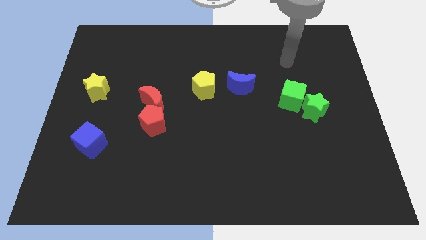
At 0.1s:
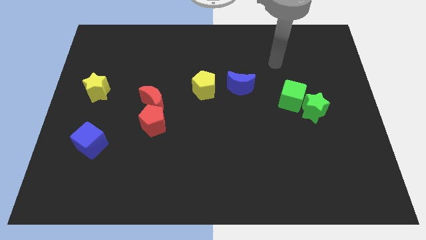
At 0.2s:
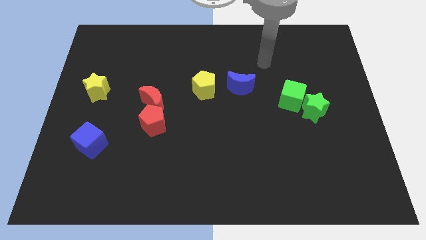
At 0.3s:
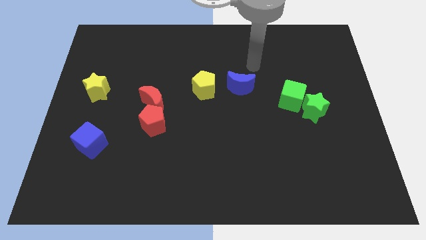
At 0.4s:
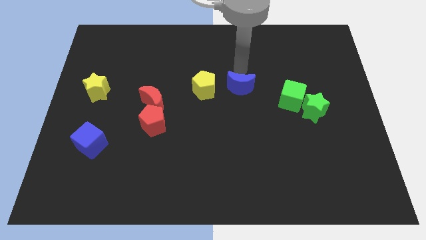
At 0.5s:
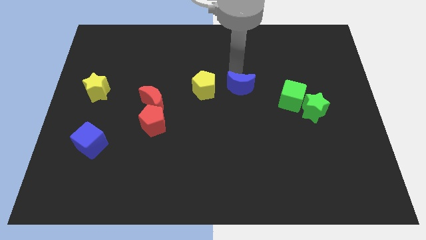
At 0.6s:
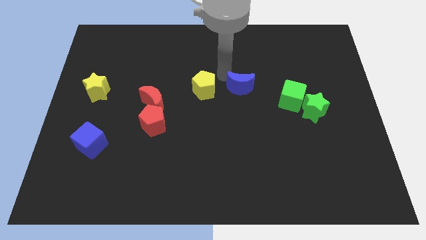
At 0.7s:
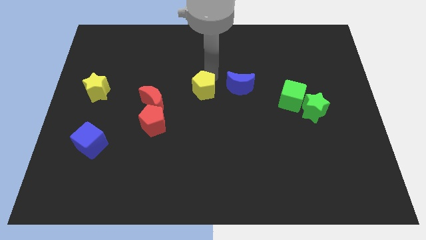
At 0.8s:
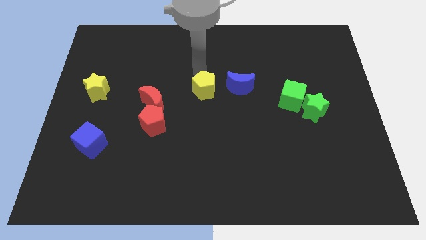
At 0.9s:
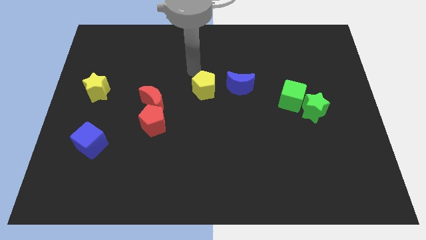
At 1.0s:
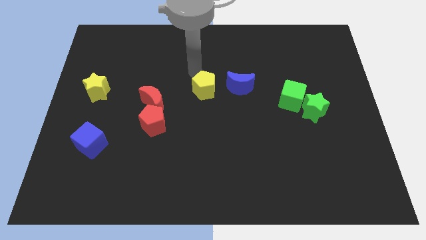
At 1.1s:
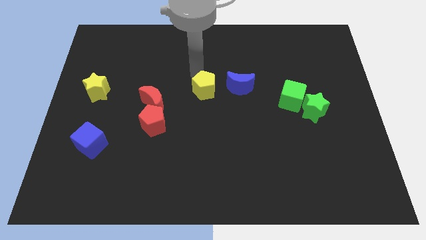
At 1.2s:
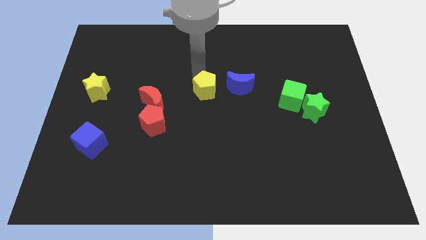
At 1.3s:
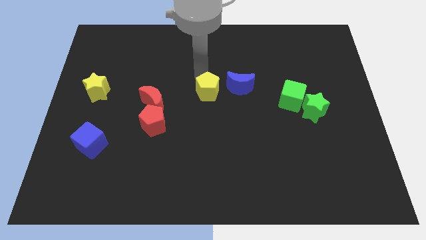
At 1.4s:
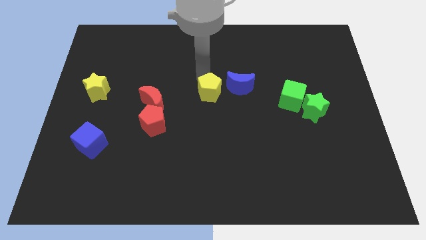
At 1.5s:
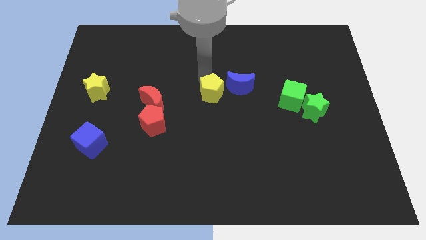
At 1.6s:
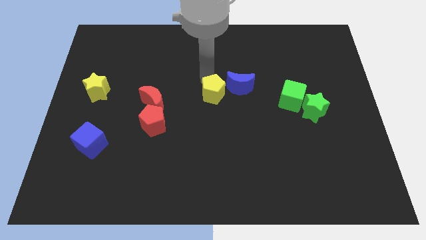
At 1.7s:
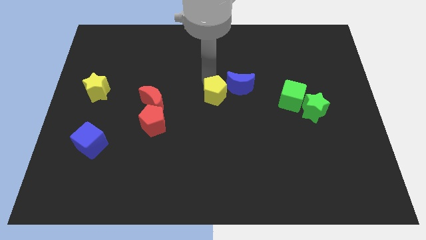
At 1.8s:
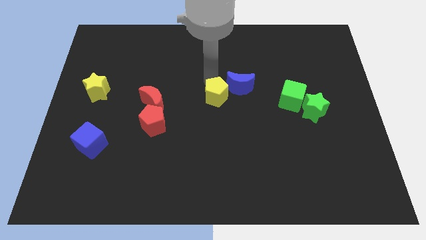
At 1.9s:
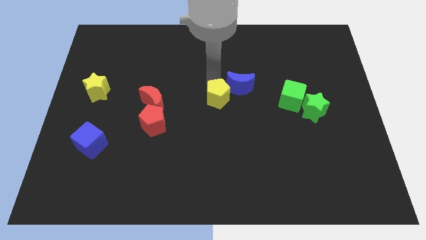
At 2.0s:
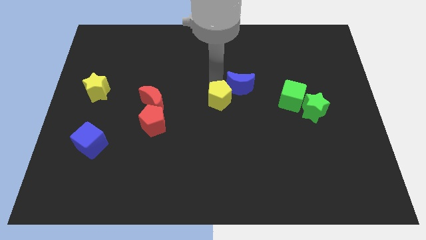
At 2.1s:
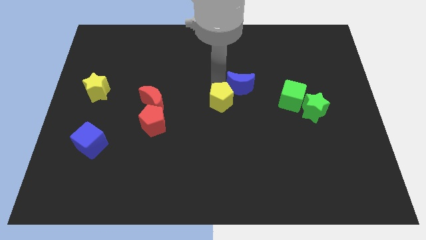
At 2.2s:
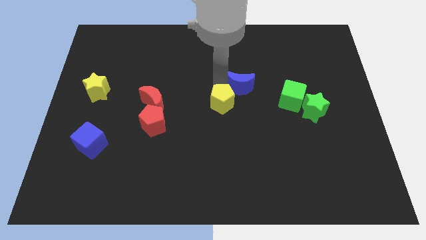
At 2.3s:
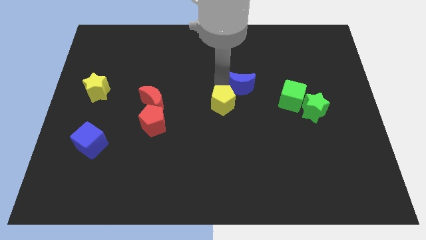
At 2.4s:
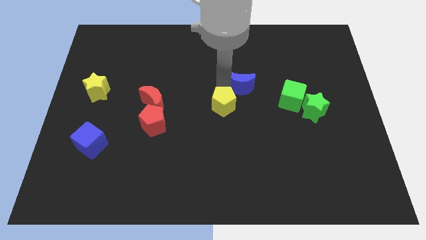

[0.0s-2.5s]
move the yellow pentagon down and to the right slightly

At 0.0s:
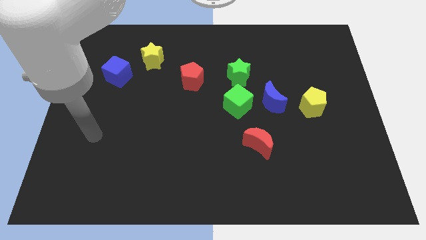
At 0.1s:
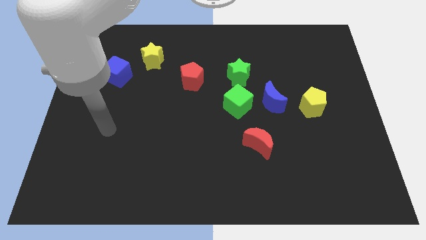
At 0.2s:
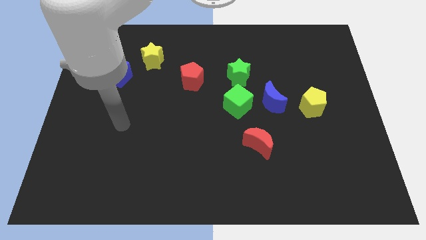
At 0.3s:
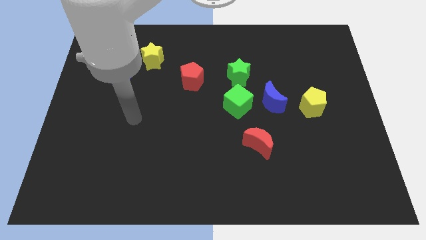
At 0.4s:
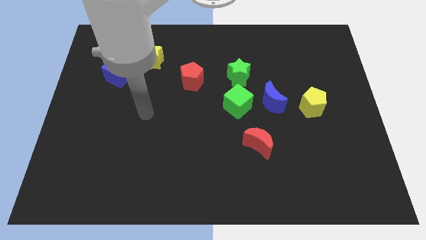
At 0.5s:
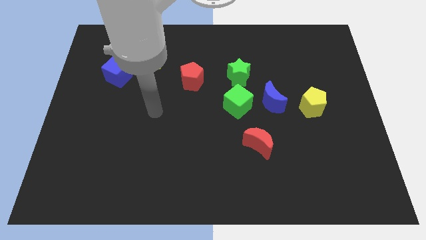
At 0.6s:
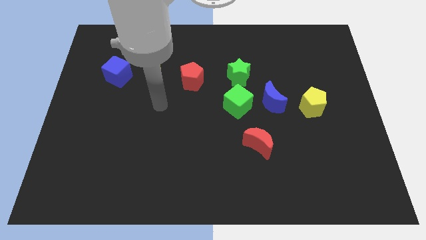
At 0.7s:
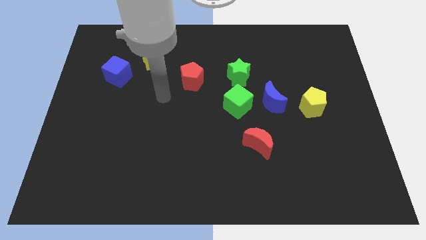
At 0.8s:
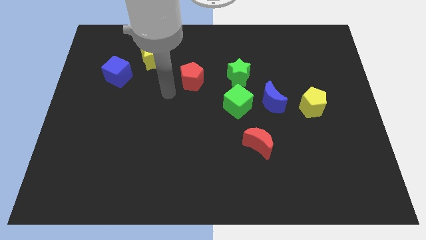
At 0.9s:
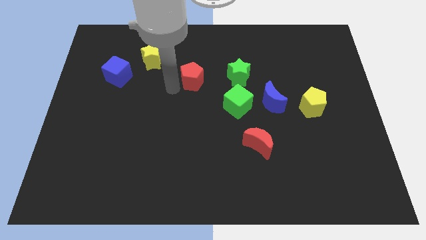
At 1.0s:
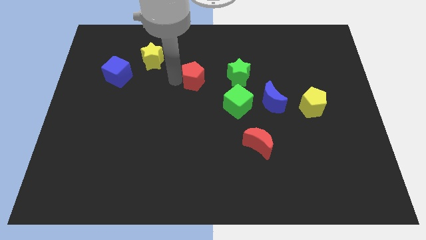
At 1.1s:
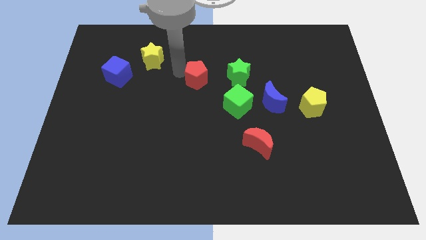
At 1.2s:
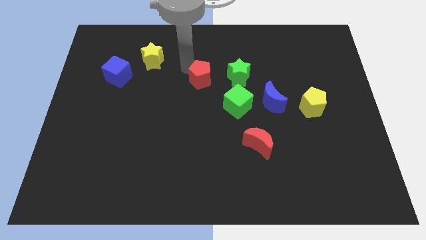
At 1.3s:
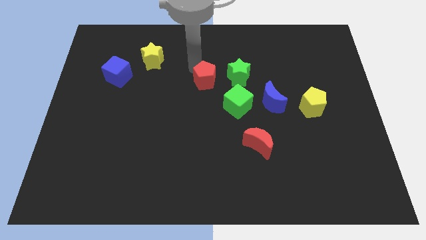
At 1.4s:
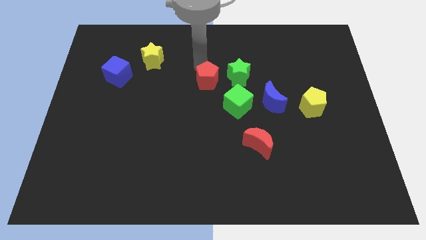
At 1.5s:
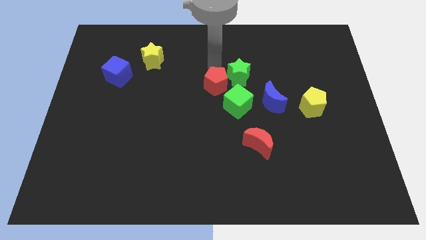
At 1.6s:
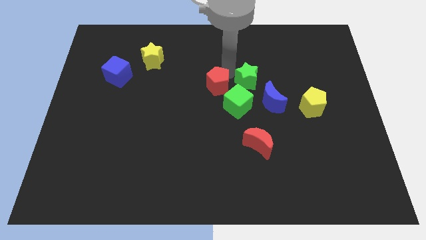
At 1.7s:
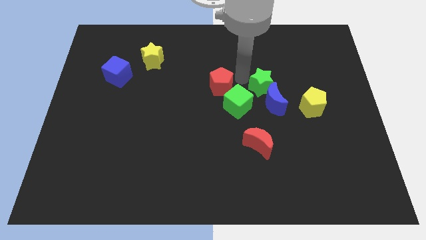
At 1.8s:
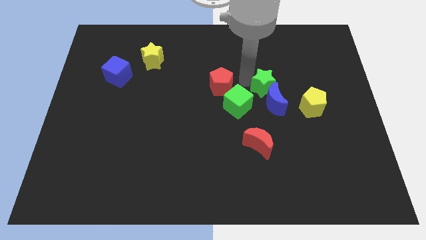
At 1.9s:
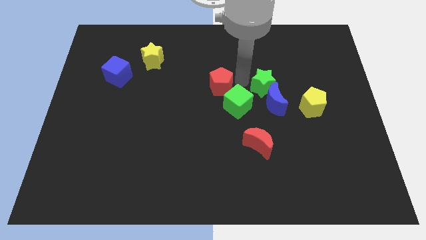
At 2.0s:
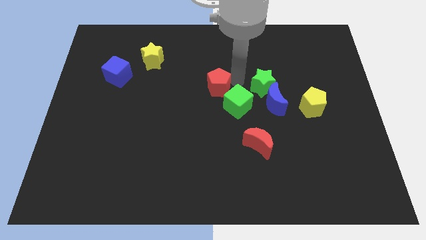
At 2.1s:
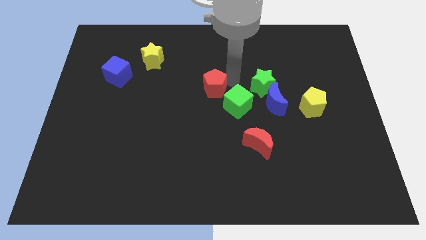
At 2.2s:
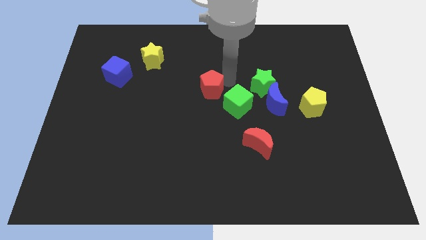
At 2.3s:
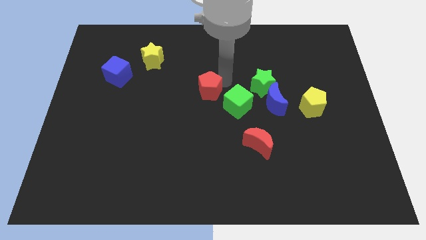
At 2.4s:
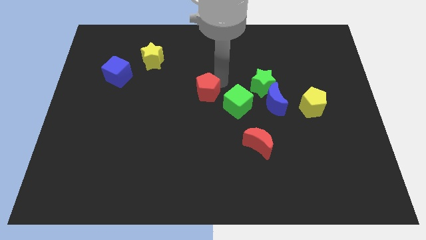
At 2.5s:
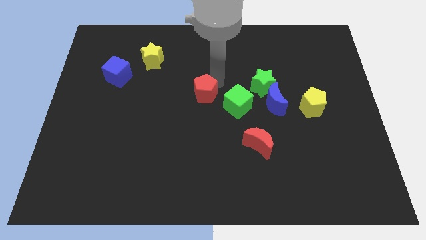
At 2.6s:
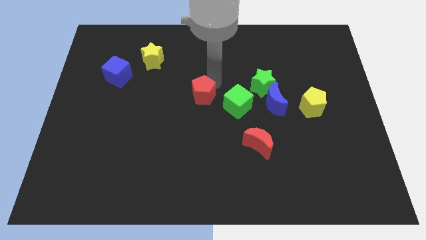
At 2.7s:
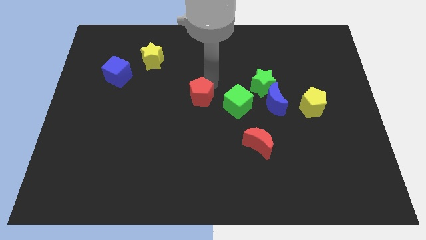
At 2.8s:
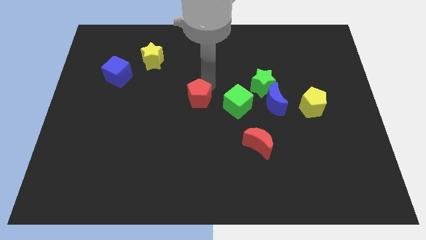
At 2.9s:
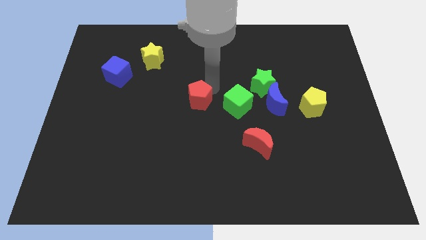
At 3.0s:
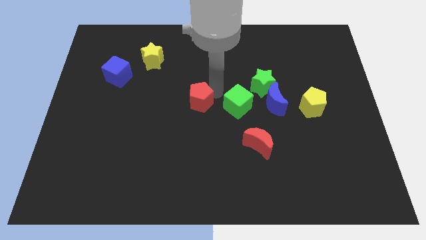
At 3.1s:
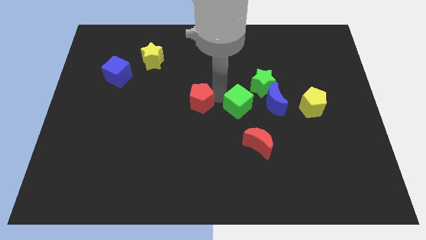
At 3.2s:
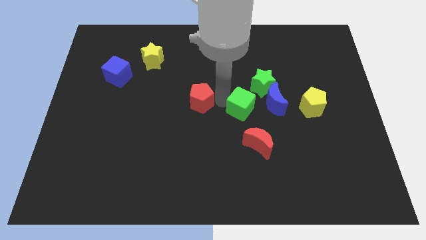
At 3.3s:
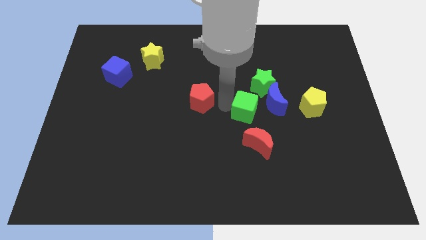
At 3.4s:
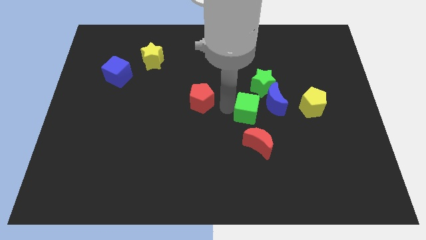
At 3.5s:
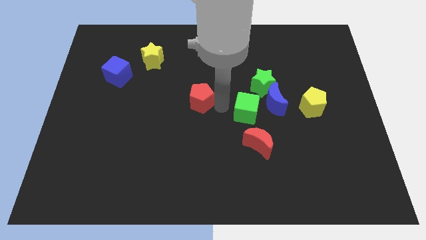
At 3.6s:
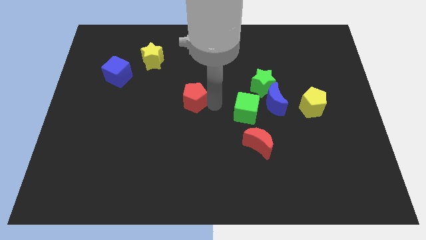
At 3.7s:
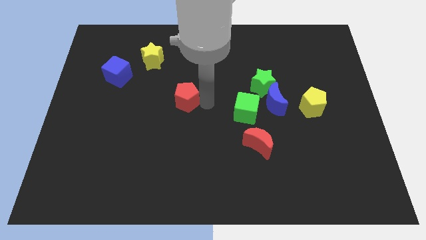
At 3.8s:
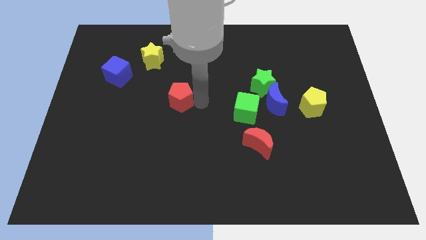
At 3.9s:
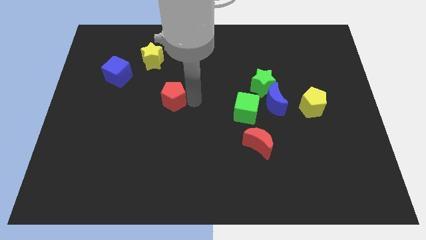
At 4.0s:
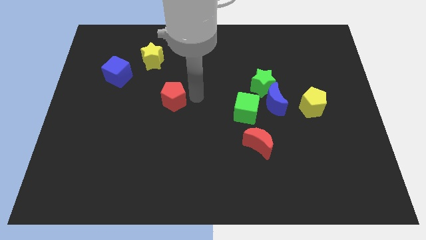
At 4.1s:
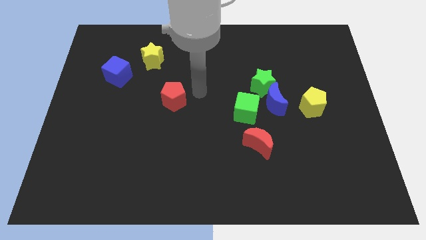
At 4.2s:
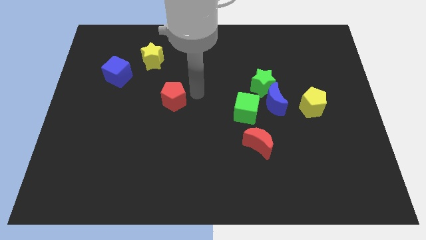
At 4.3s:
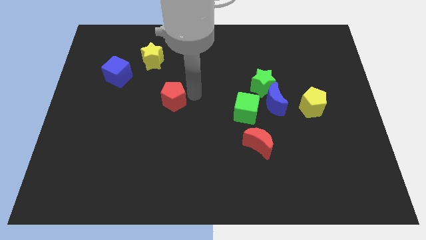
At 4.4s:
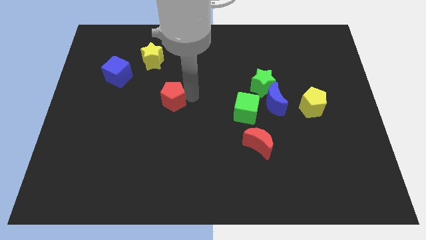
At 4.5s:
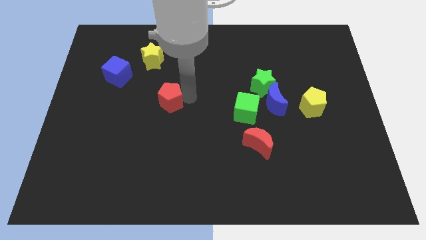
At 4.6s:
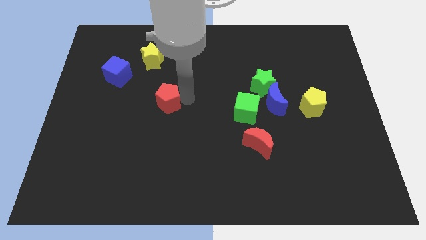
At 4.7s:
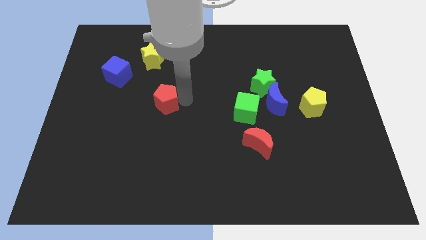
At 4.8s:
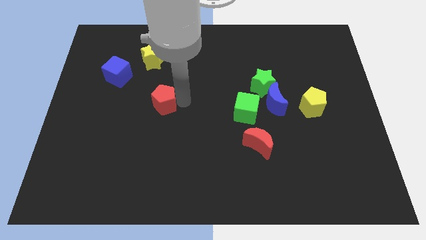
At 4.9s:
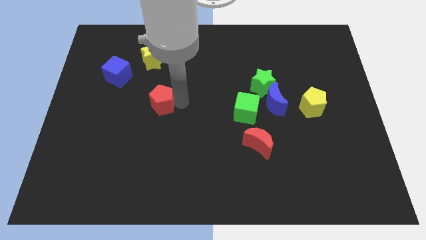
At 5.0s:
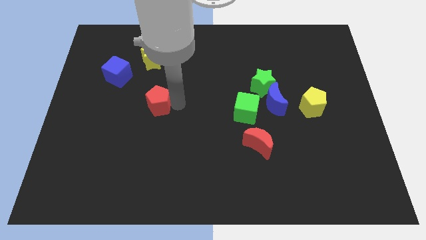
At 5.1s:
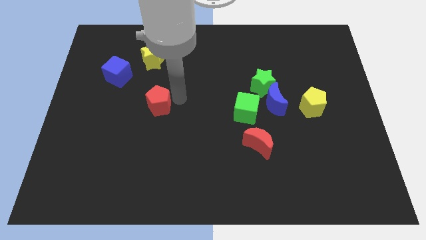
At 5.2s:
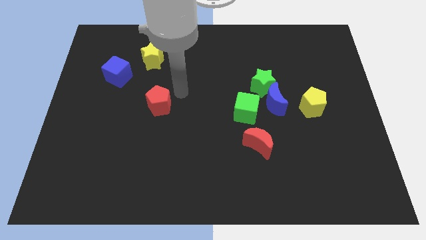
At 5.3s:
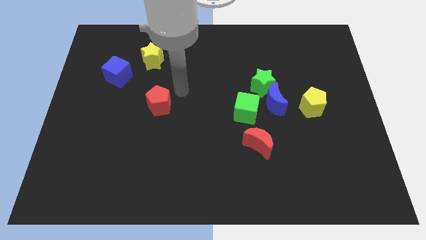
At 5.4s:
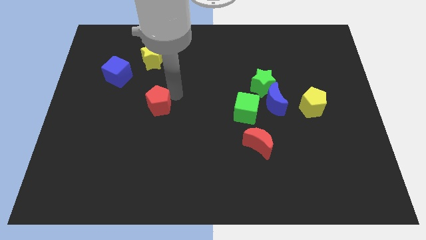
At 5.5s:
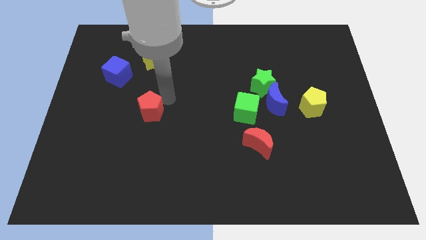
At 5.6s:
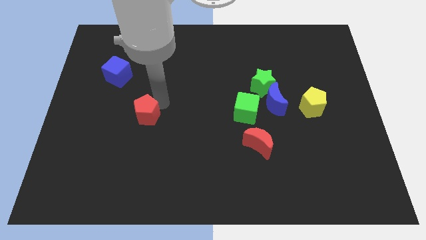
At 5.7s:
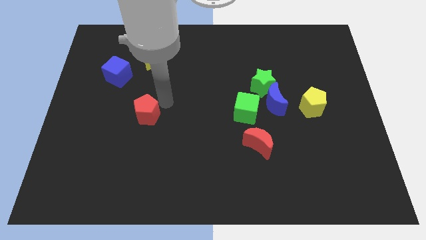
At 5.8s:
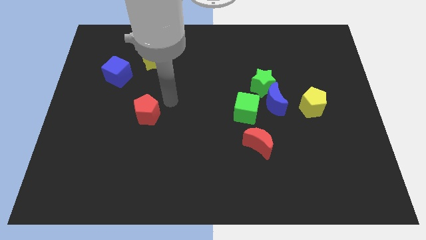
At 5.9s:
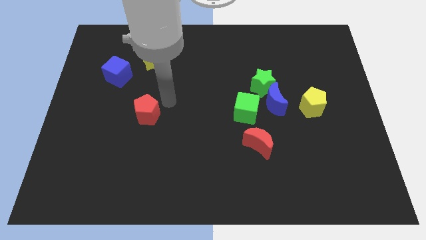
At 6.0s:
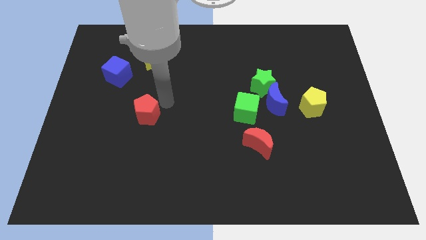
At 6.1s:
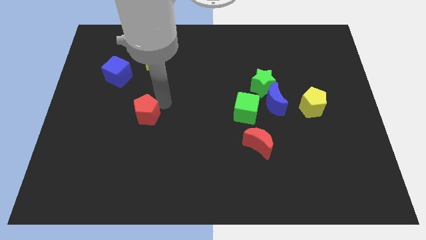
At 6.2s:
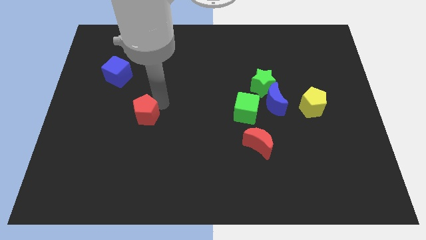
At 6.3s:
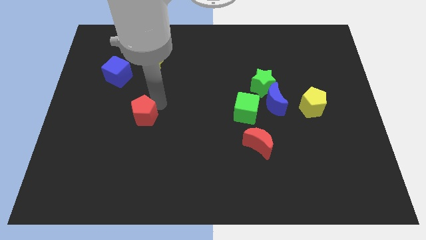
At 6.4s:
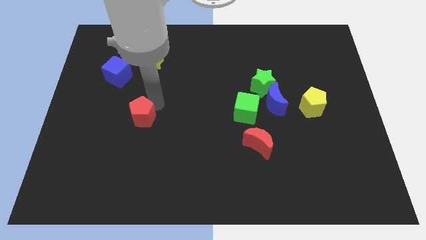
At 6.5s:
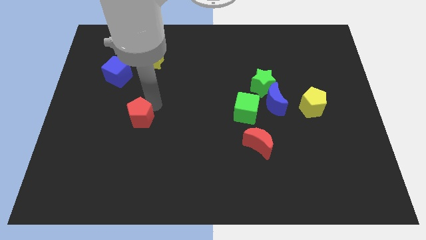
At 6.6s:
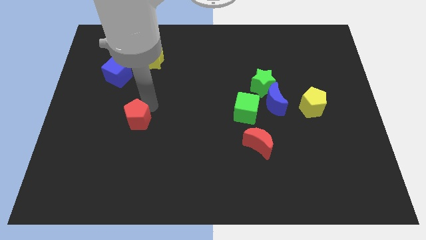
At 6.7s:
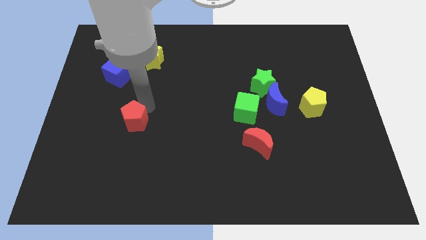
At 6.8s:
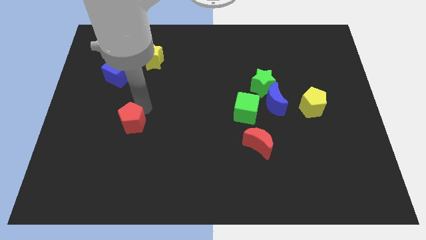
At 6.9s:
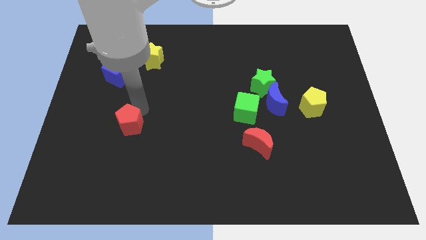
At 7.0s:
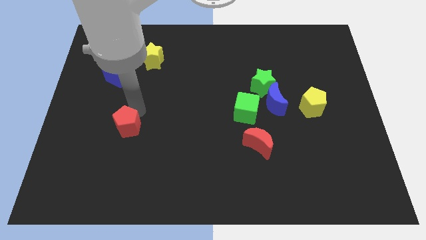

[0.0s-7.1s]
move the red pentagon downwards and left
